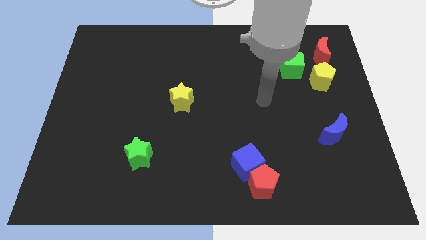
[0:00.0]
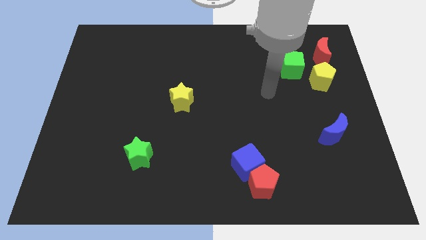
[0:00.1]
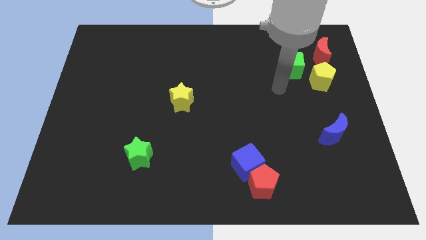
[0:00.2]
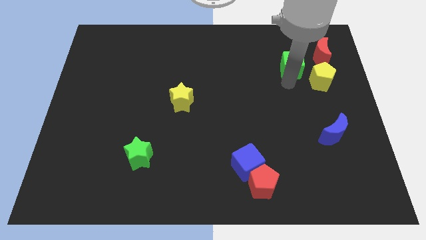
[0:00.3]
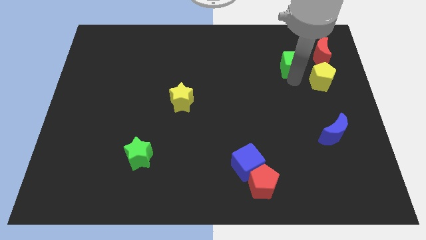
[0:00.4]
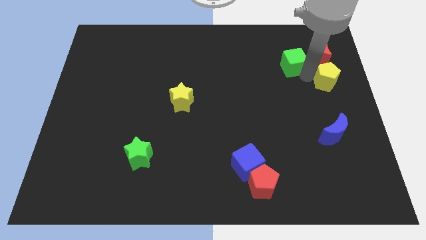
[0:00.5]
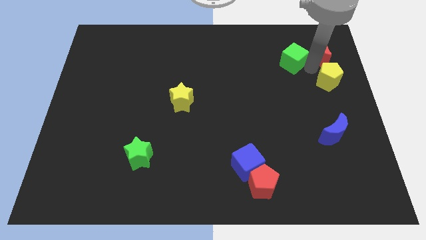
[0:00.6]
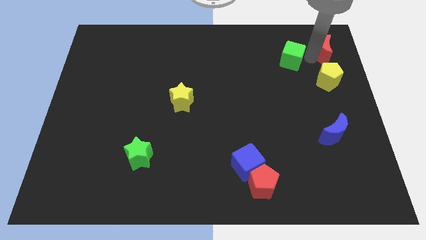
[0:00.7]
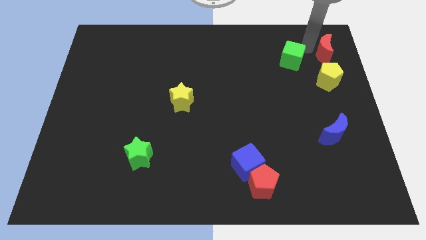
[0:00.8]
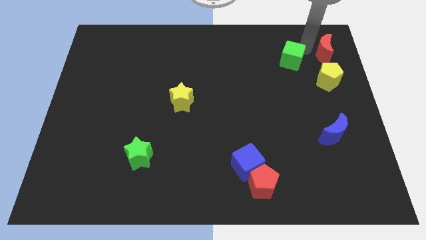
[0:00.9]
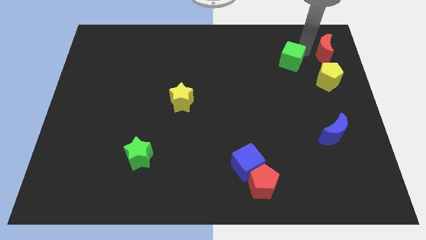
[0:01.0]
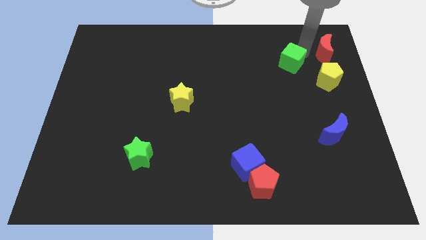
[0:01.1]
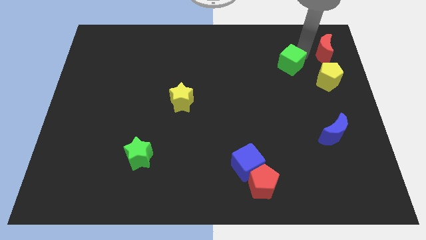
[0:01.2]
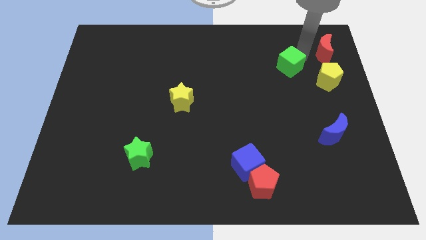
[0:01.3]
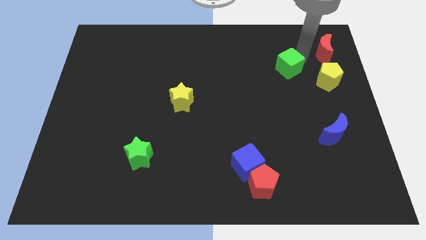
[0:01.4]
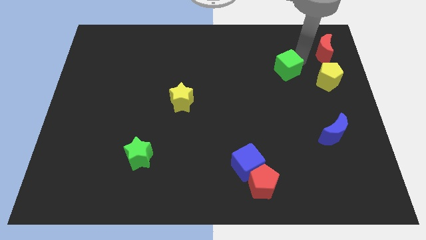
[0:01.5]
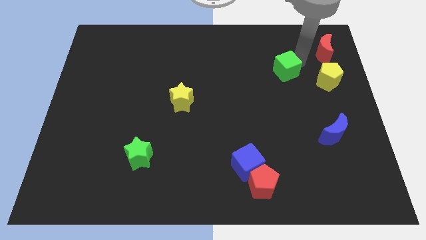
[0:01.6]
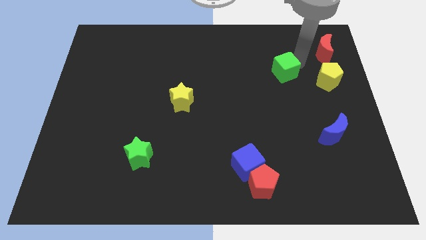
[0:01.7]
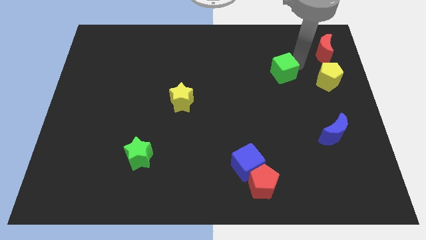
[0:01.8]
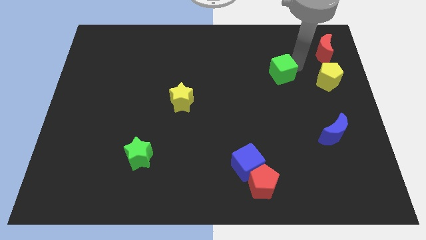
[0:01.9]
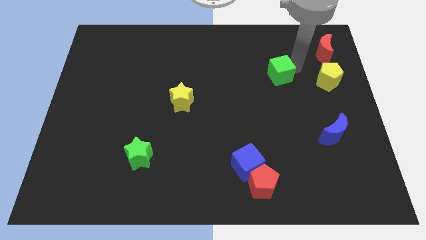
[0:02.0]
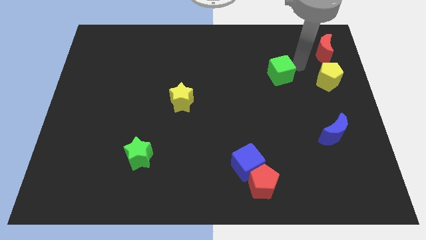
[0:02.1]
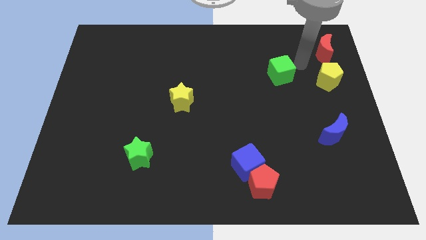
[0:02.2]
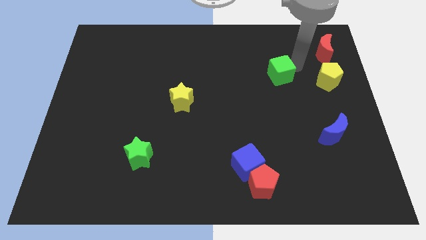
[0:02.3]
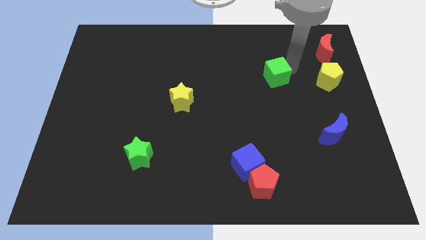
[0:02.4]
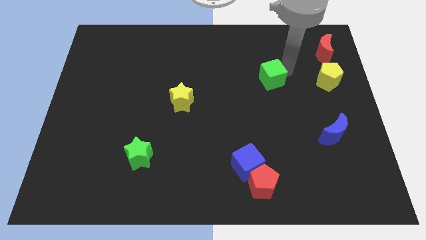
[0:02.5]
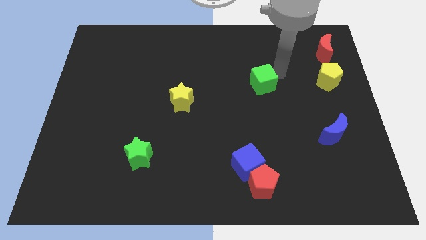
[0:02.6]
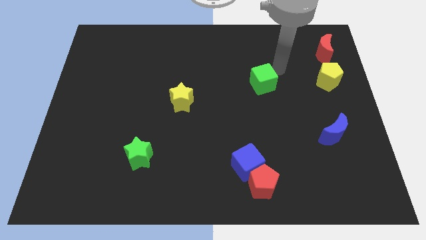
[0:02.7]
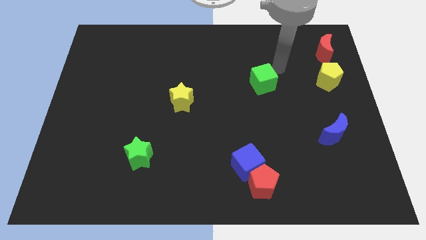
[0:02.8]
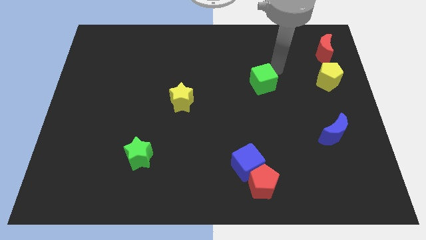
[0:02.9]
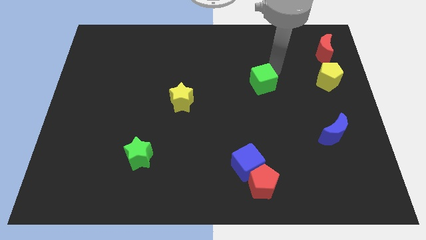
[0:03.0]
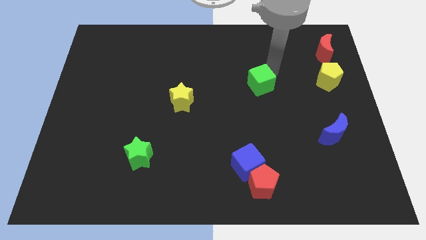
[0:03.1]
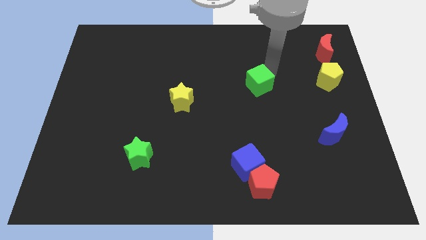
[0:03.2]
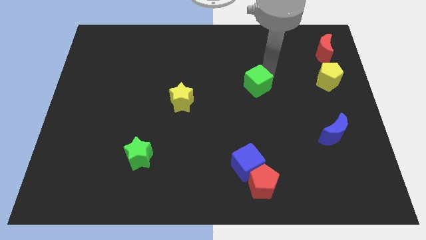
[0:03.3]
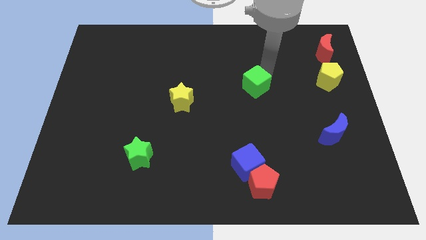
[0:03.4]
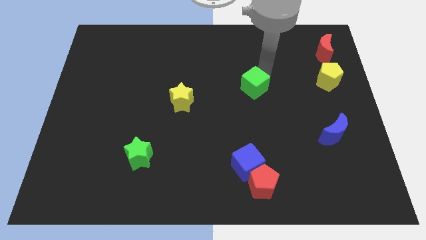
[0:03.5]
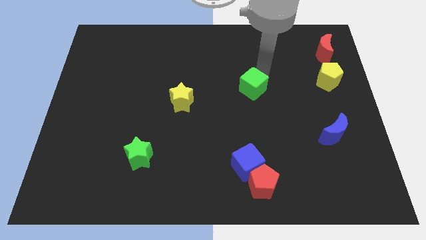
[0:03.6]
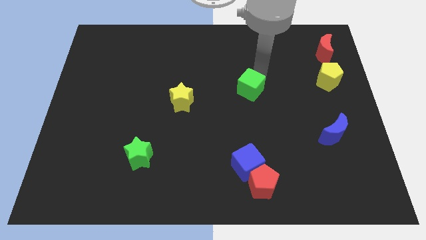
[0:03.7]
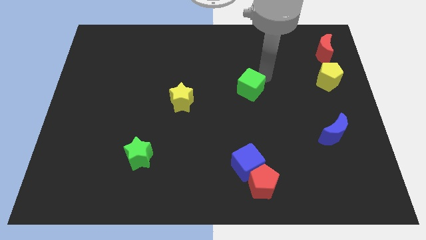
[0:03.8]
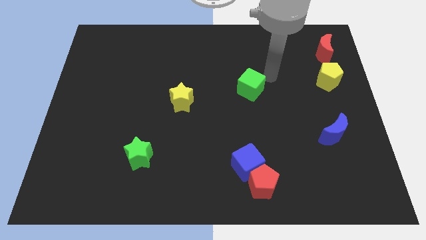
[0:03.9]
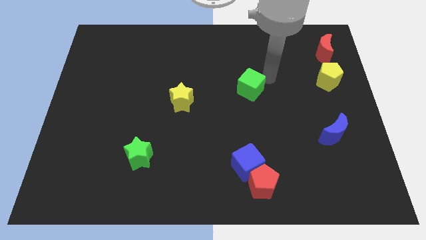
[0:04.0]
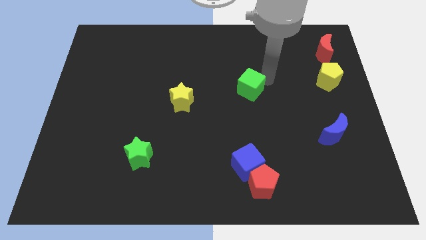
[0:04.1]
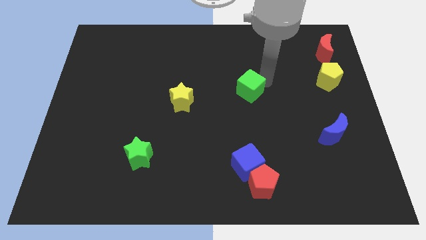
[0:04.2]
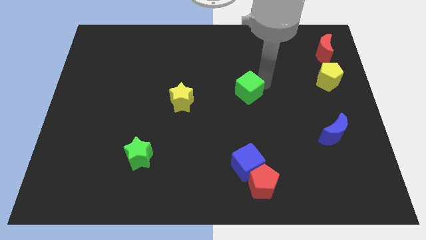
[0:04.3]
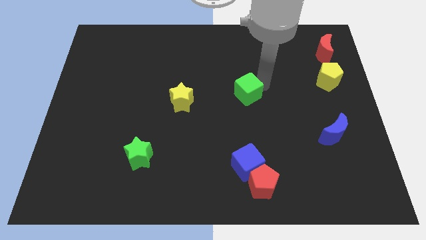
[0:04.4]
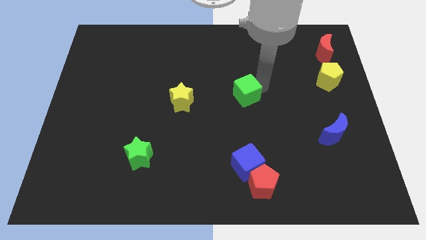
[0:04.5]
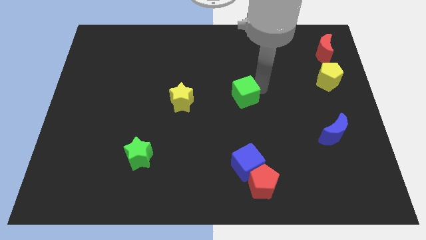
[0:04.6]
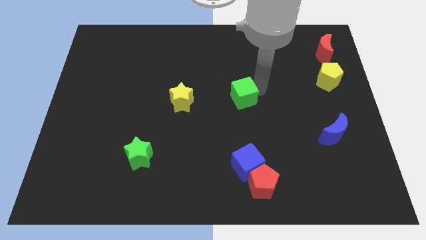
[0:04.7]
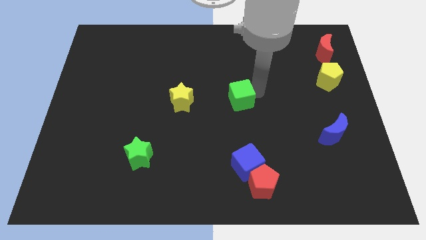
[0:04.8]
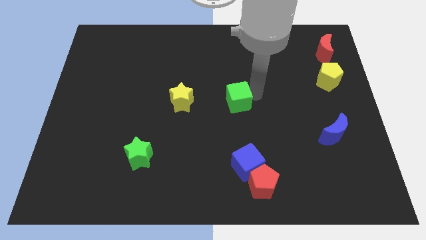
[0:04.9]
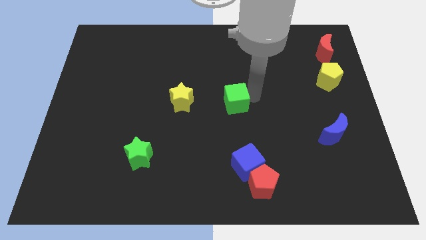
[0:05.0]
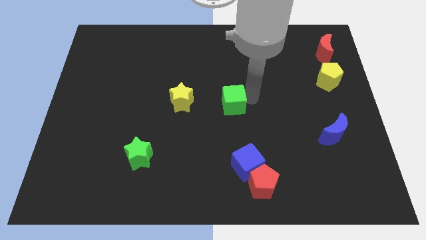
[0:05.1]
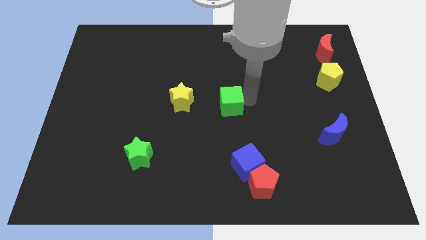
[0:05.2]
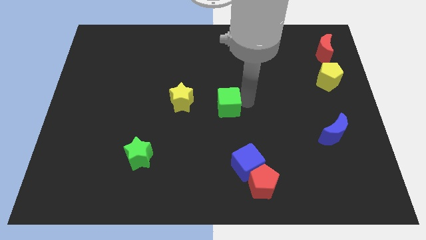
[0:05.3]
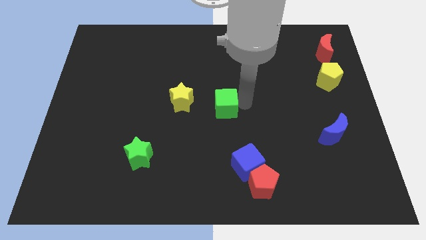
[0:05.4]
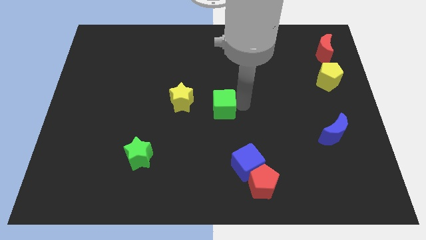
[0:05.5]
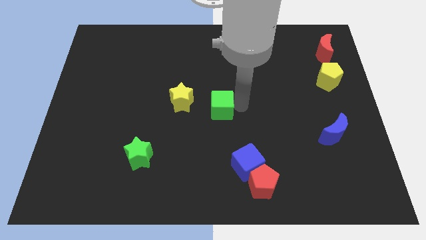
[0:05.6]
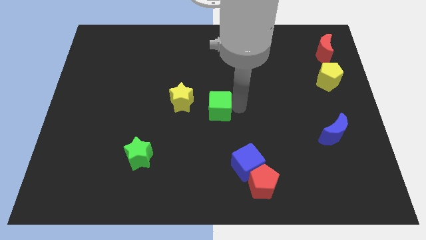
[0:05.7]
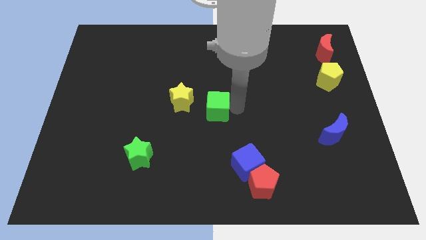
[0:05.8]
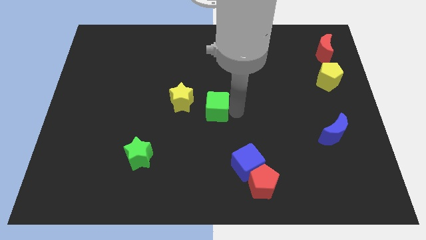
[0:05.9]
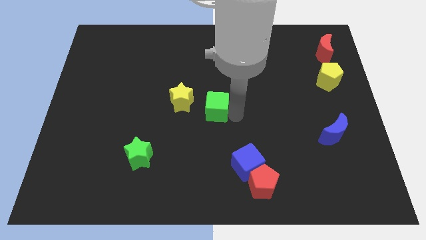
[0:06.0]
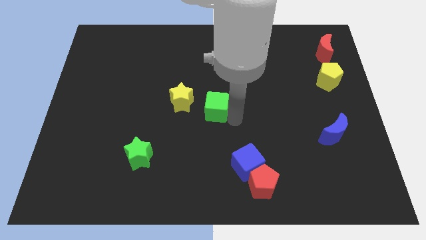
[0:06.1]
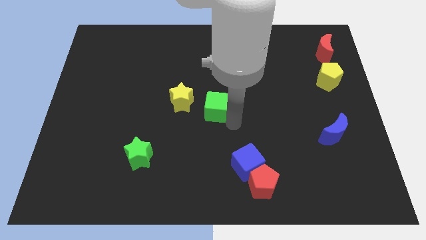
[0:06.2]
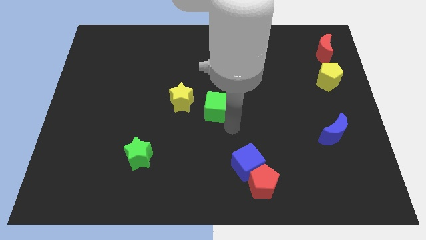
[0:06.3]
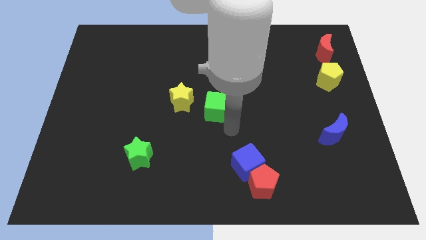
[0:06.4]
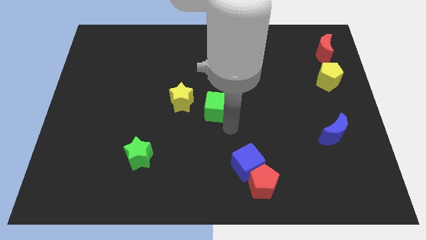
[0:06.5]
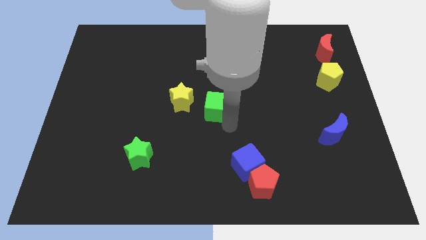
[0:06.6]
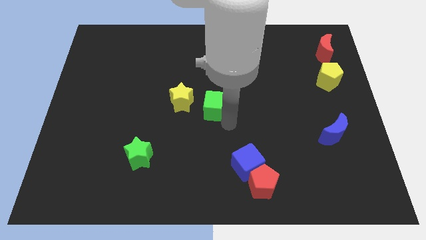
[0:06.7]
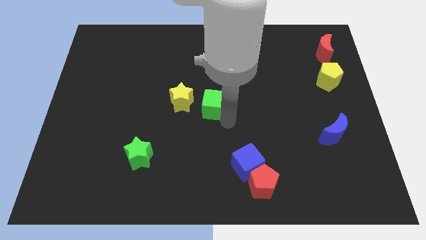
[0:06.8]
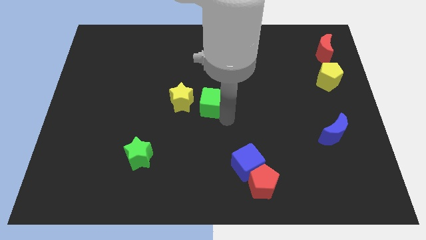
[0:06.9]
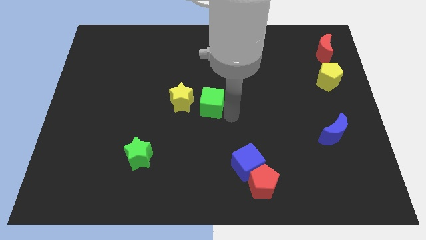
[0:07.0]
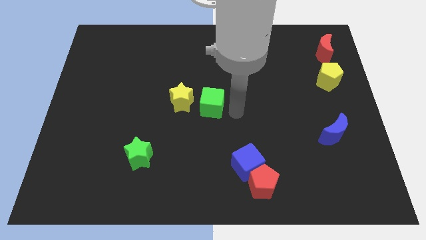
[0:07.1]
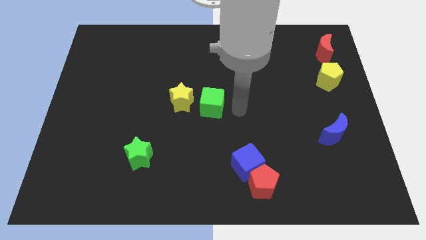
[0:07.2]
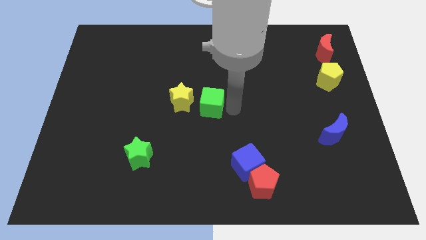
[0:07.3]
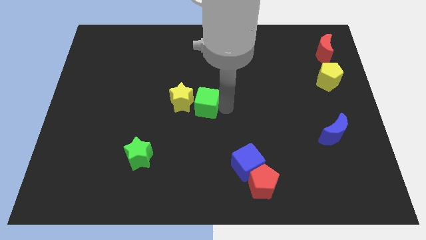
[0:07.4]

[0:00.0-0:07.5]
put the green cube to the yellow star
